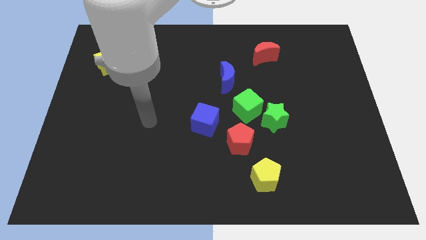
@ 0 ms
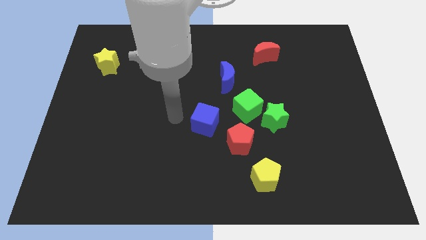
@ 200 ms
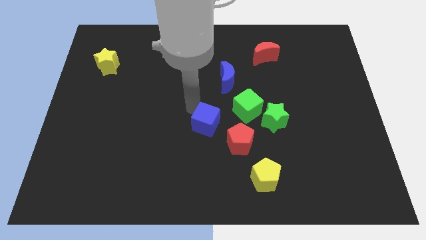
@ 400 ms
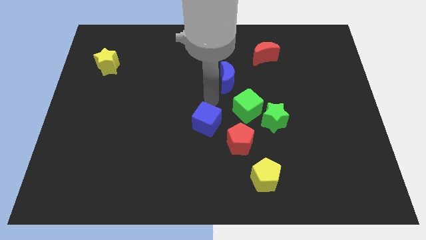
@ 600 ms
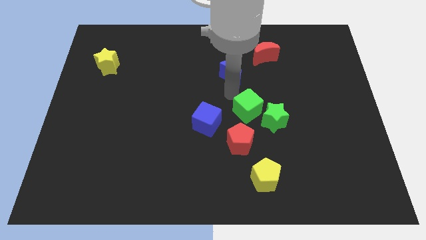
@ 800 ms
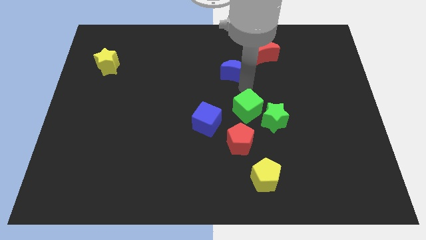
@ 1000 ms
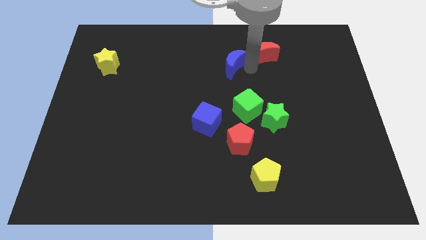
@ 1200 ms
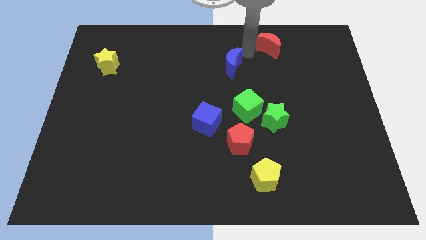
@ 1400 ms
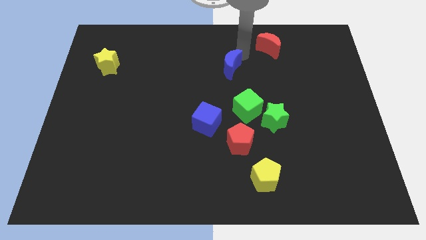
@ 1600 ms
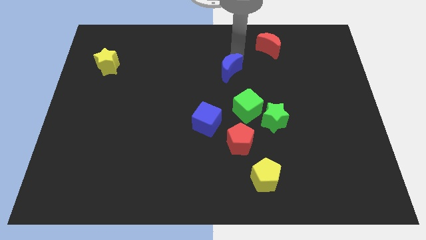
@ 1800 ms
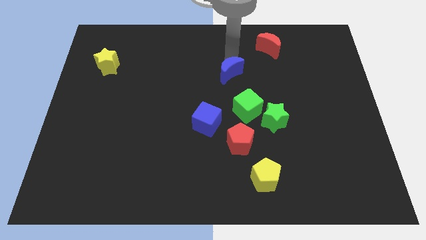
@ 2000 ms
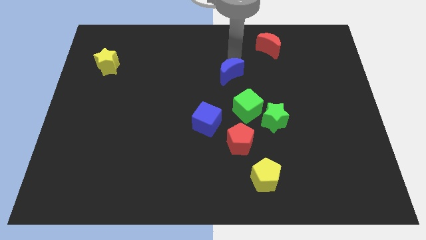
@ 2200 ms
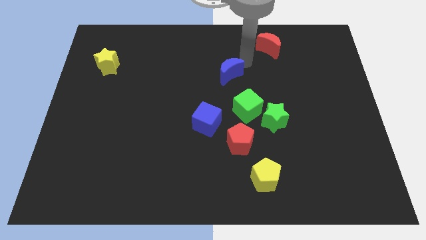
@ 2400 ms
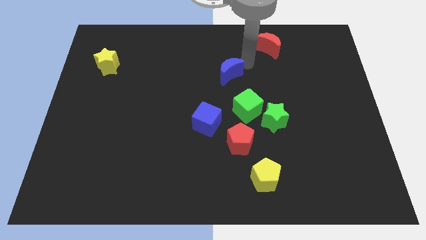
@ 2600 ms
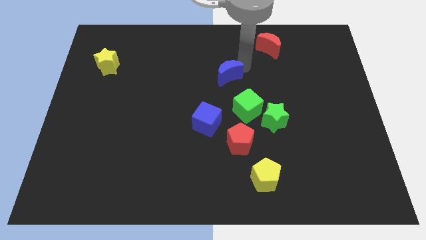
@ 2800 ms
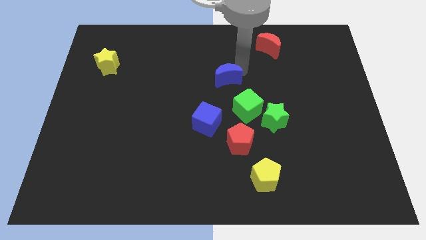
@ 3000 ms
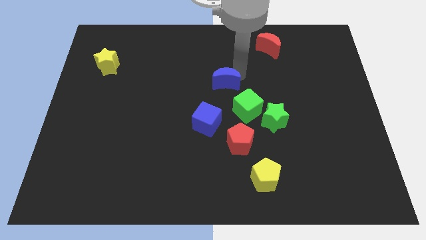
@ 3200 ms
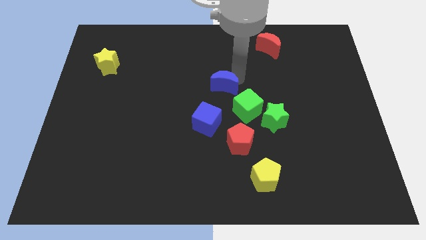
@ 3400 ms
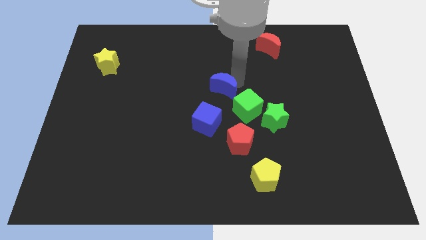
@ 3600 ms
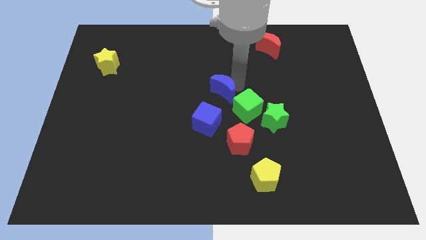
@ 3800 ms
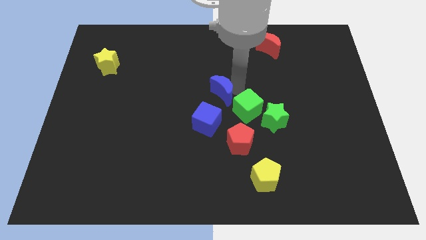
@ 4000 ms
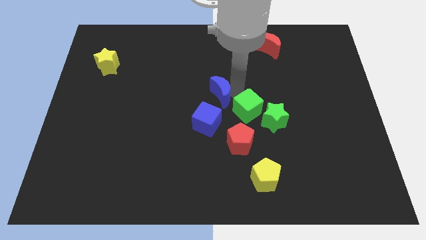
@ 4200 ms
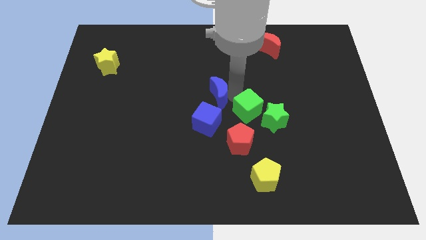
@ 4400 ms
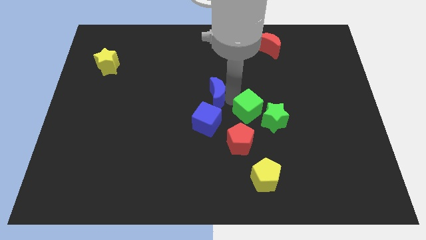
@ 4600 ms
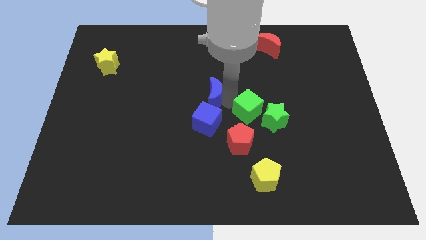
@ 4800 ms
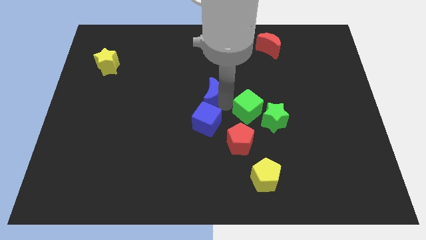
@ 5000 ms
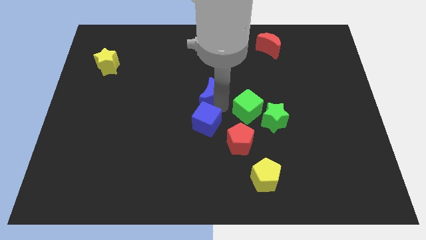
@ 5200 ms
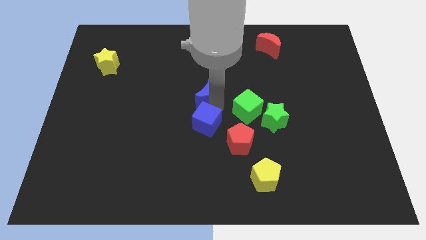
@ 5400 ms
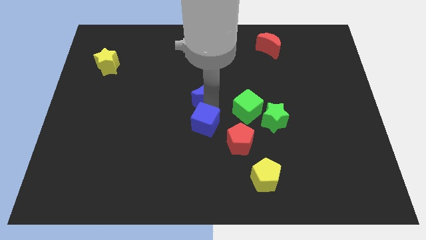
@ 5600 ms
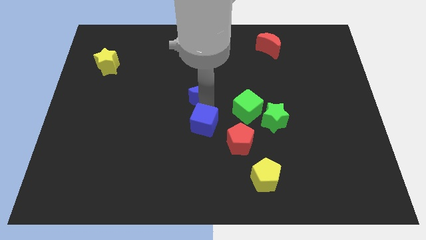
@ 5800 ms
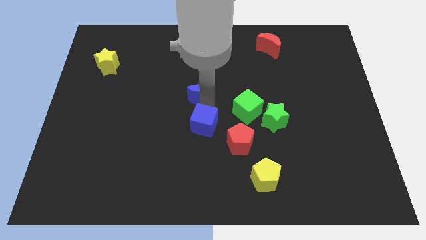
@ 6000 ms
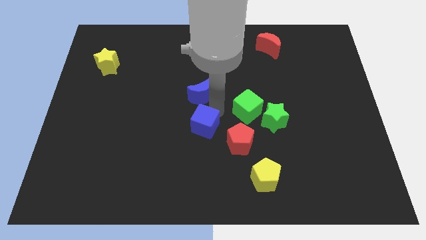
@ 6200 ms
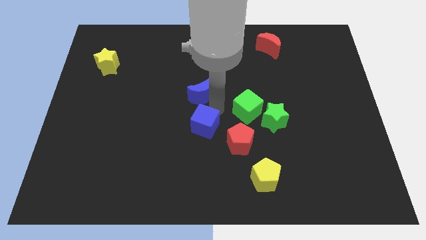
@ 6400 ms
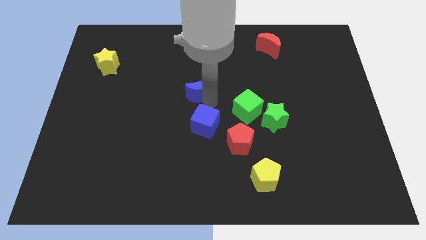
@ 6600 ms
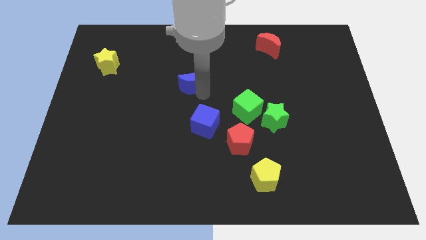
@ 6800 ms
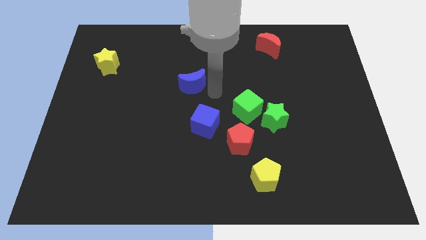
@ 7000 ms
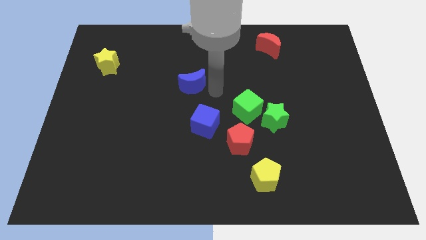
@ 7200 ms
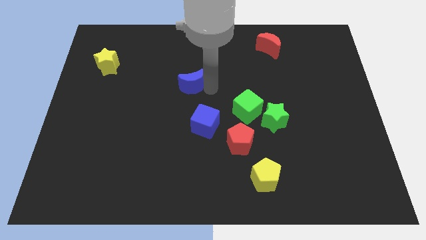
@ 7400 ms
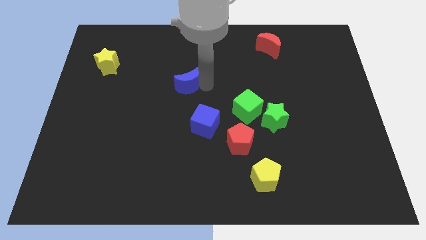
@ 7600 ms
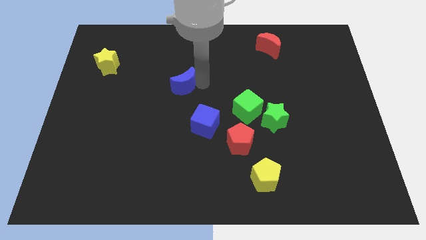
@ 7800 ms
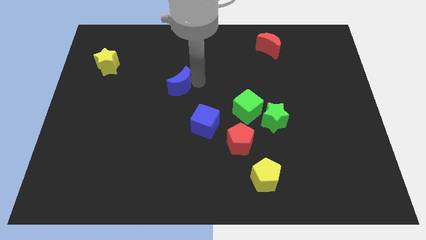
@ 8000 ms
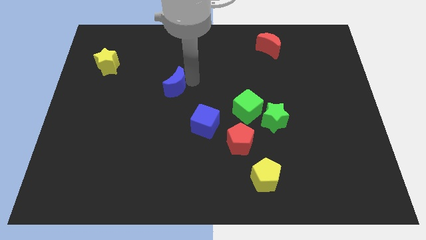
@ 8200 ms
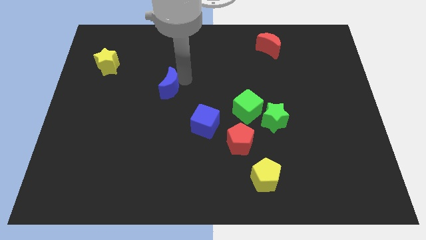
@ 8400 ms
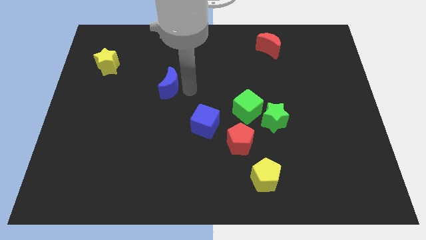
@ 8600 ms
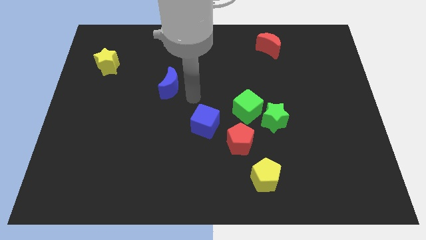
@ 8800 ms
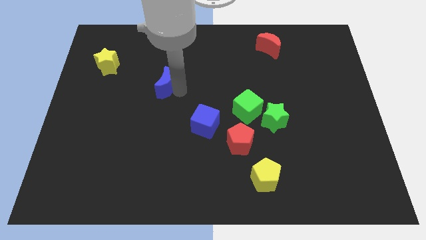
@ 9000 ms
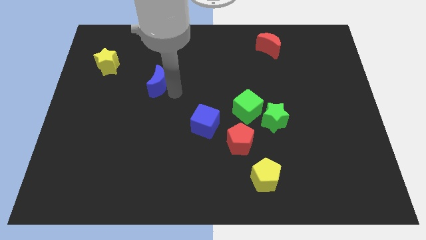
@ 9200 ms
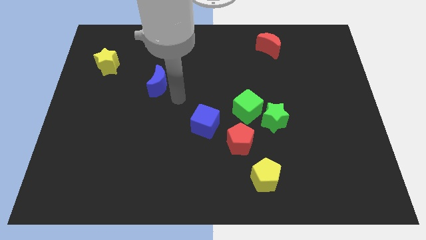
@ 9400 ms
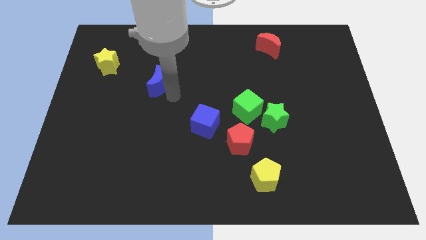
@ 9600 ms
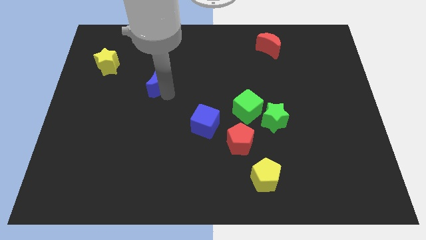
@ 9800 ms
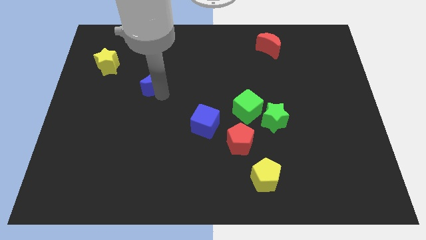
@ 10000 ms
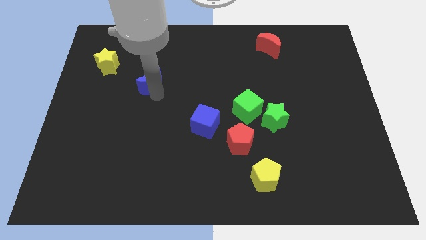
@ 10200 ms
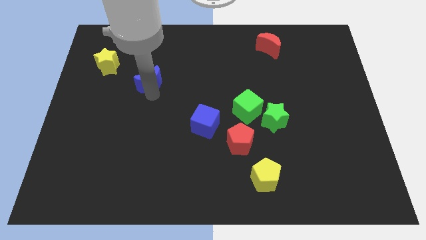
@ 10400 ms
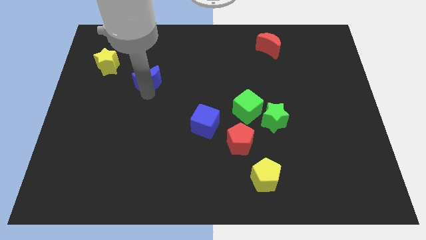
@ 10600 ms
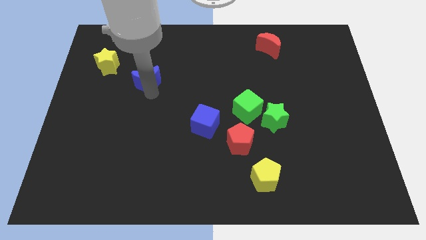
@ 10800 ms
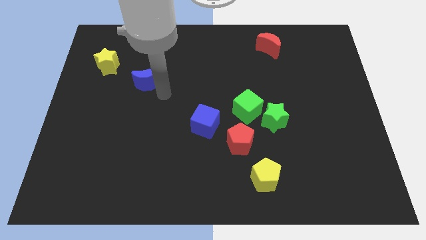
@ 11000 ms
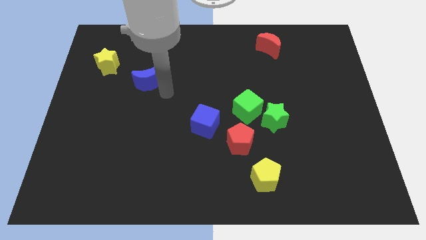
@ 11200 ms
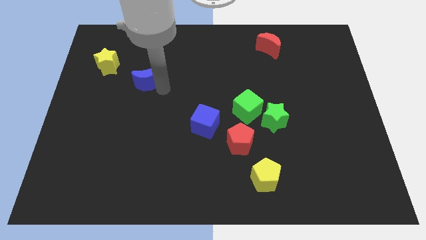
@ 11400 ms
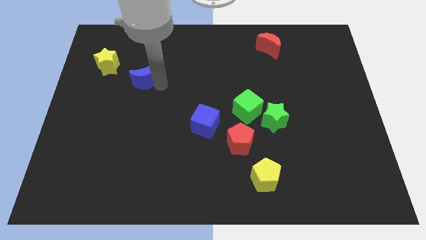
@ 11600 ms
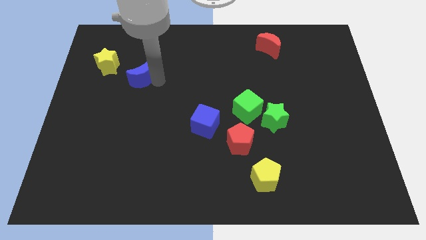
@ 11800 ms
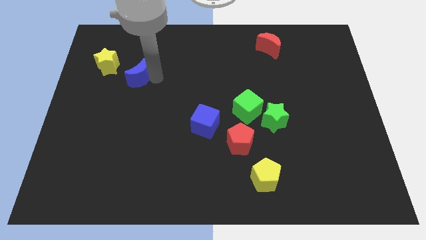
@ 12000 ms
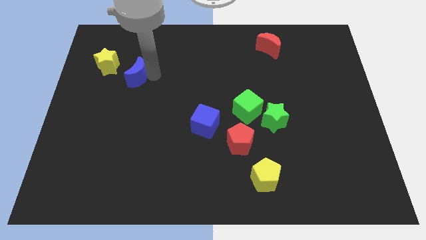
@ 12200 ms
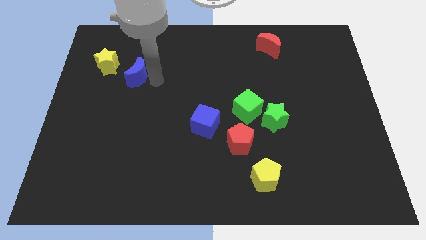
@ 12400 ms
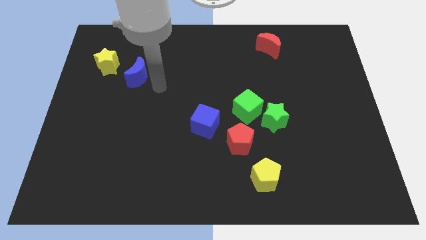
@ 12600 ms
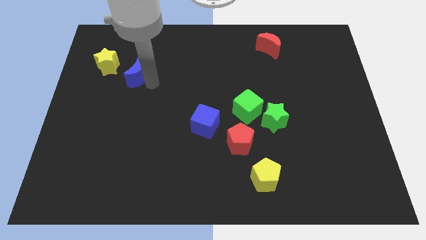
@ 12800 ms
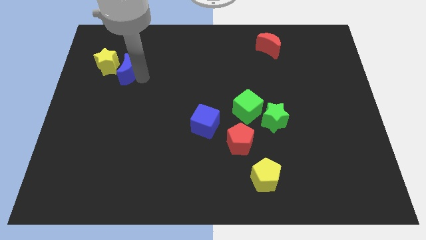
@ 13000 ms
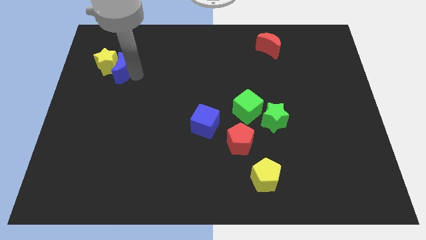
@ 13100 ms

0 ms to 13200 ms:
move the blue moon to the yellow star
